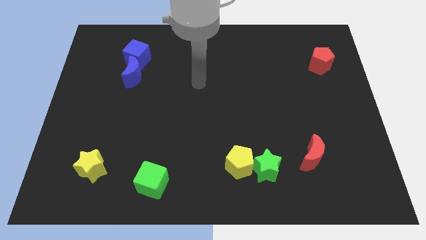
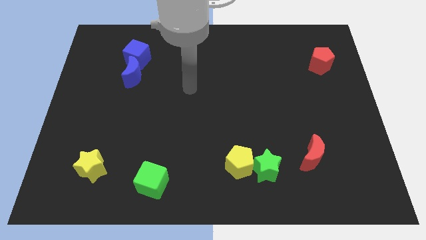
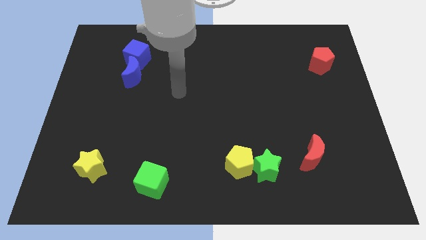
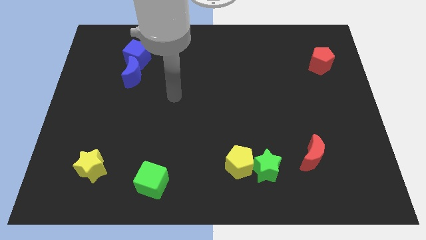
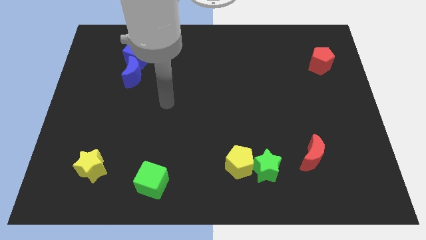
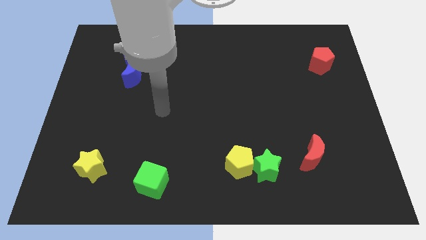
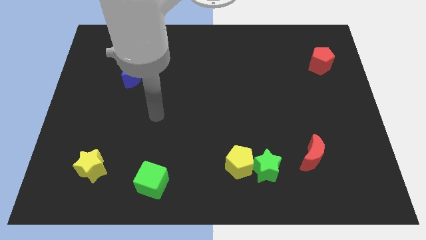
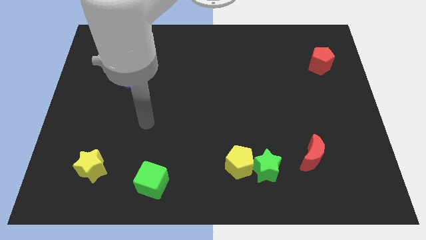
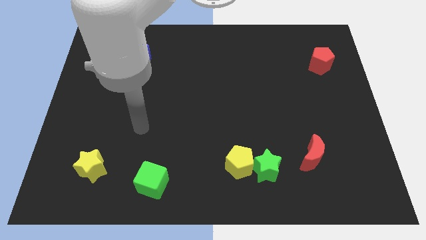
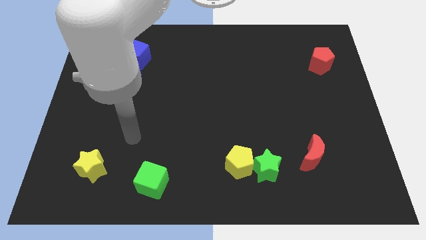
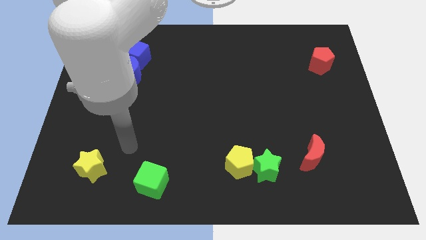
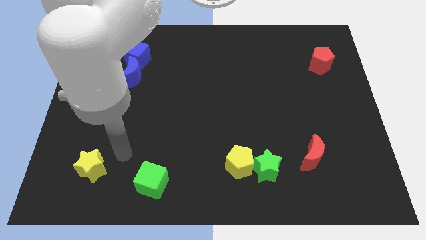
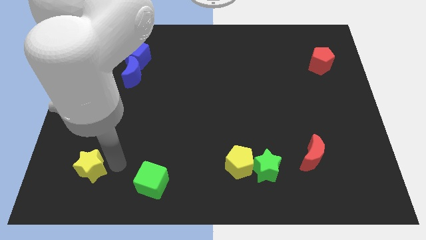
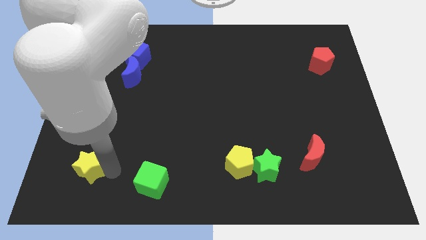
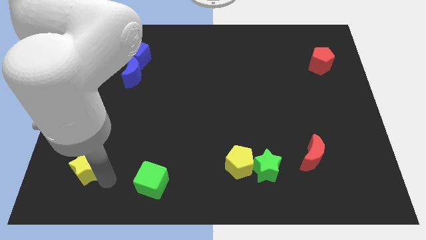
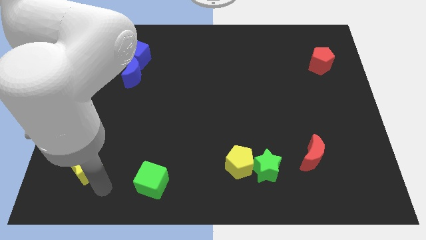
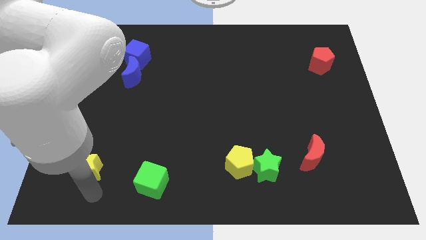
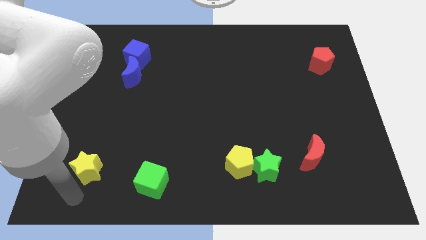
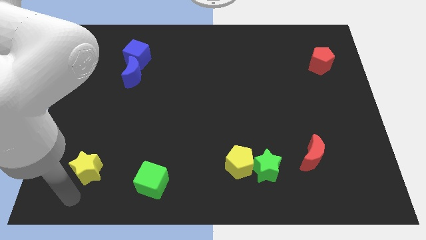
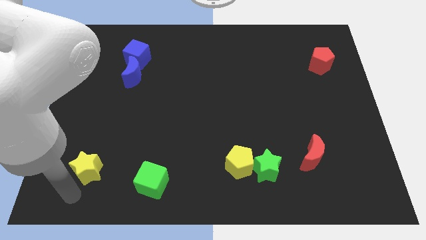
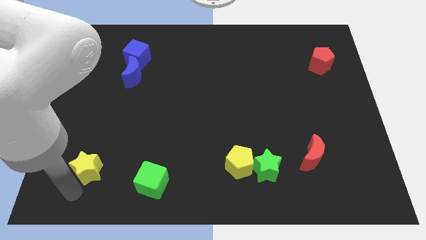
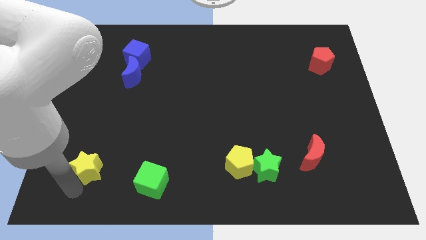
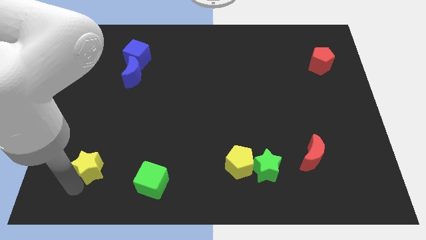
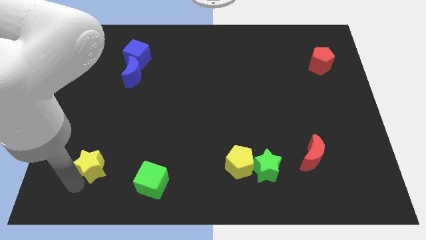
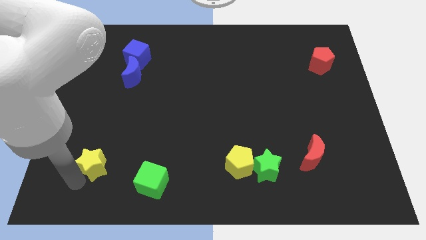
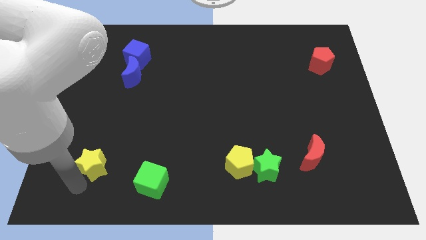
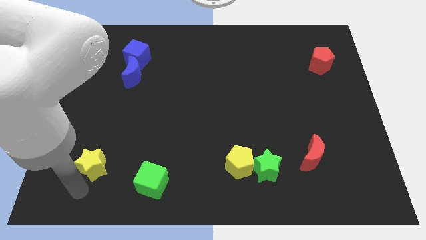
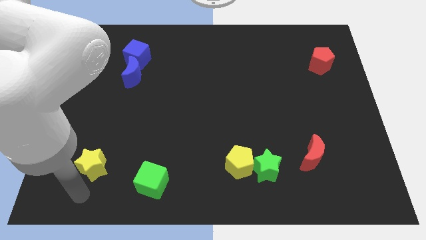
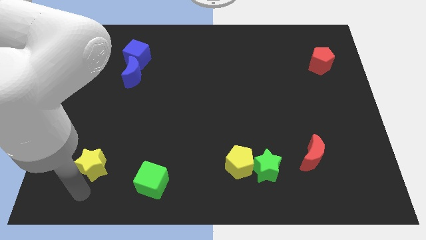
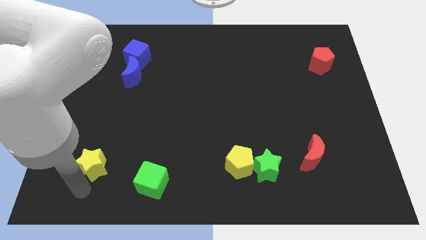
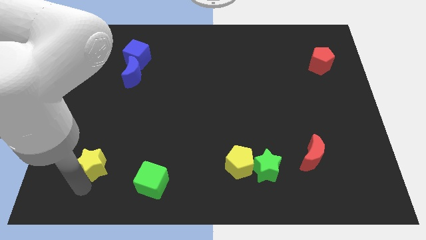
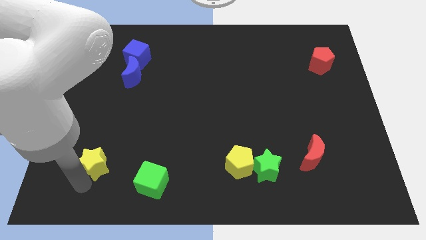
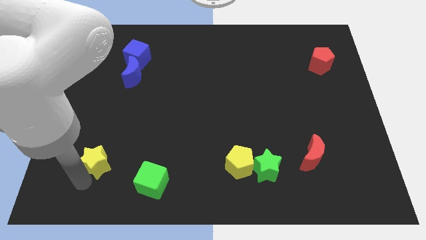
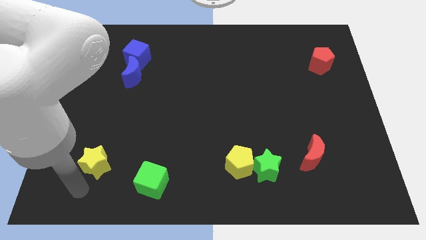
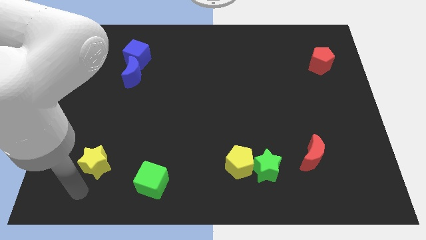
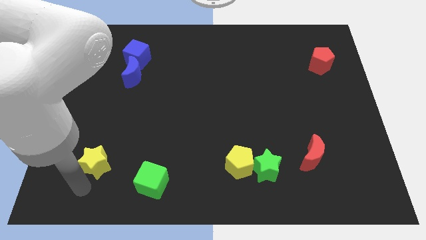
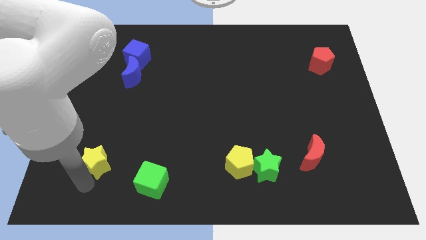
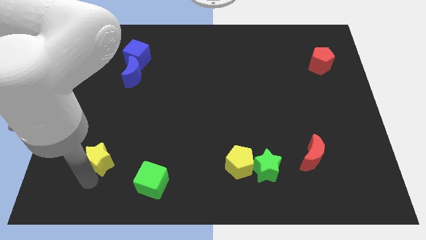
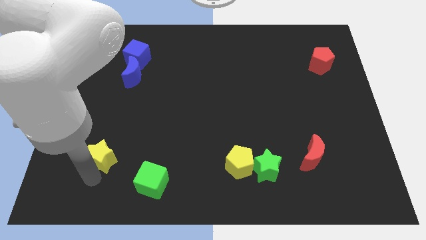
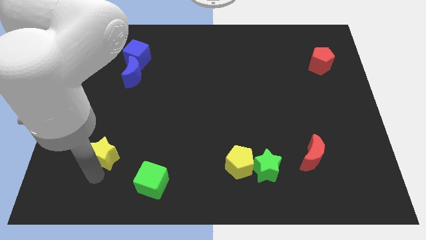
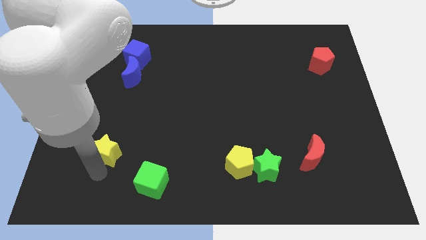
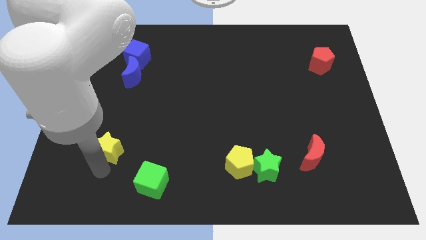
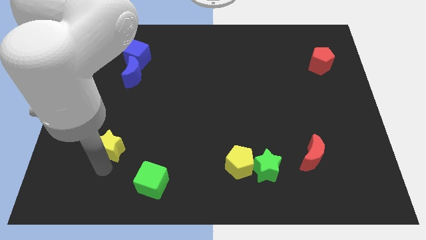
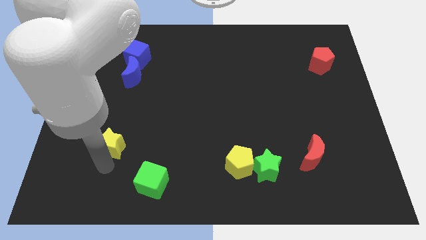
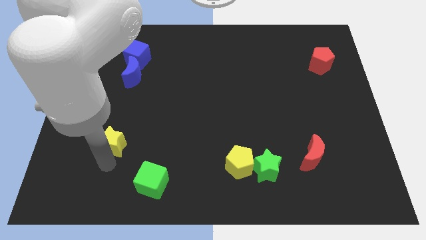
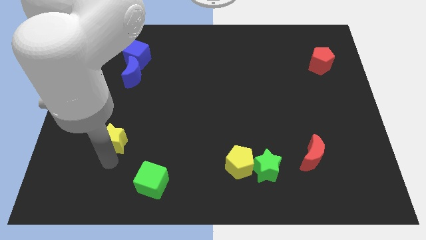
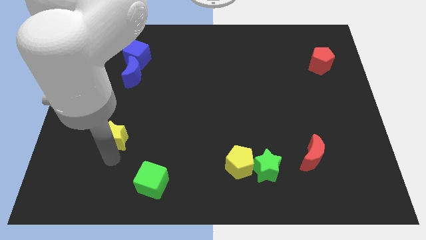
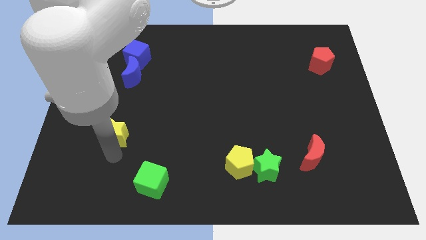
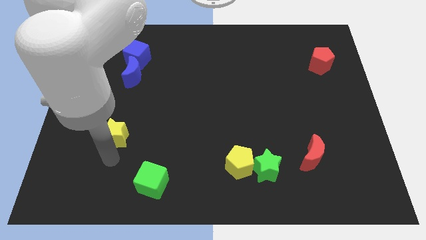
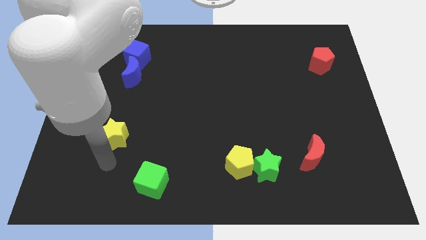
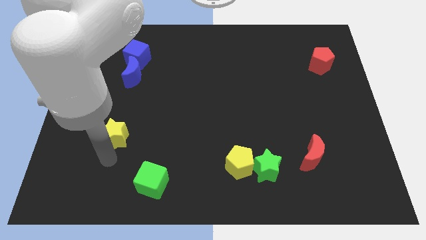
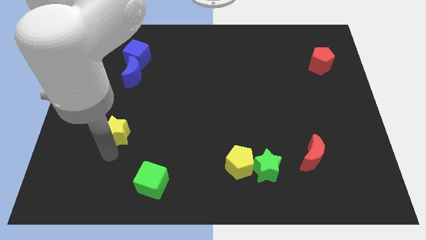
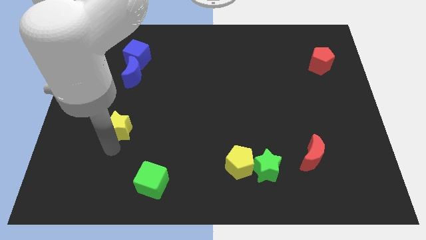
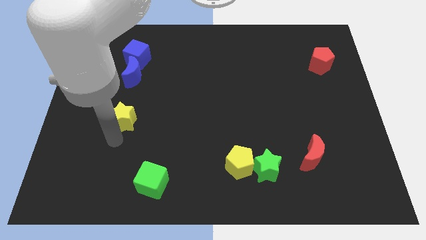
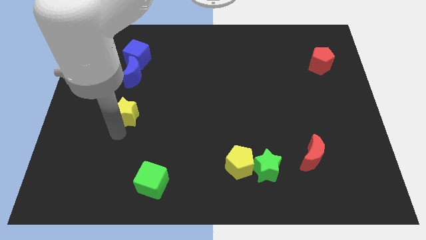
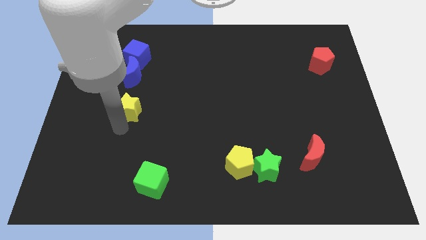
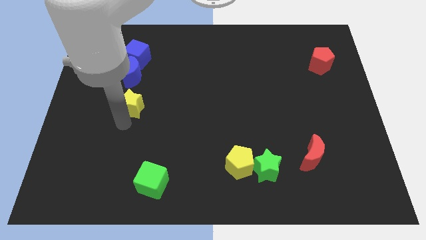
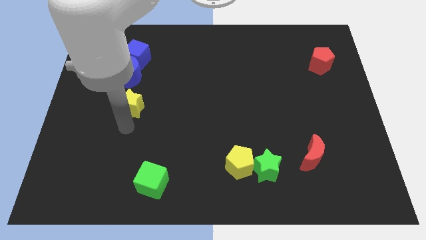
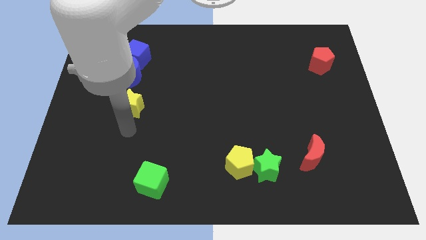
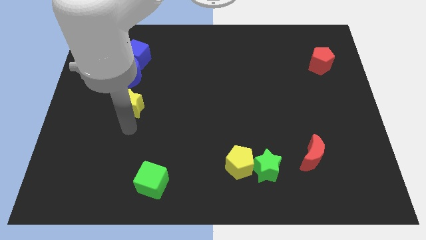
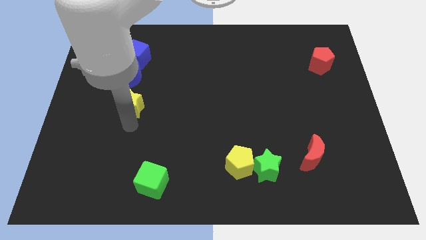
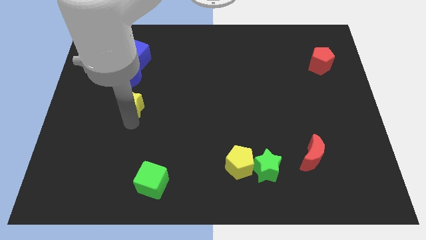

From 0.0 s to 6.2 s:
move the yellow star below the blue cube
